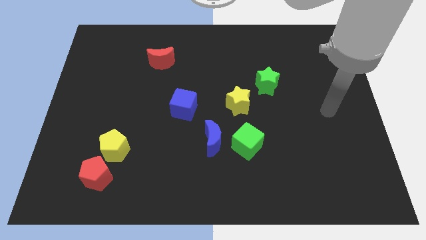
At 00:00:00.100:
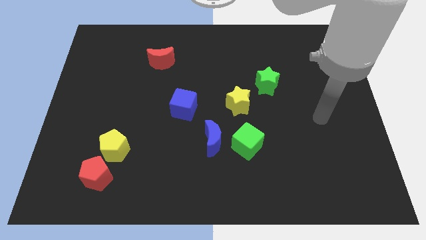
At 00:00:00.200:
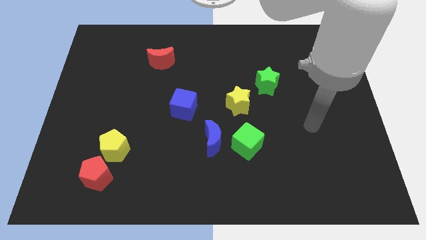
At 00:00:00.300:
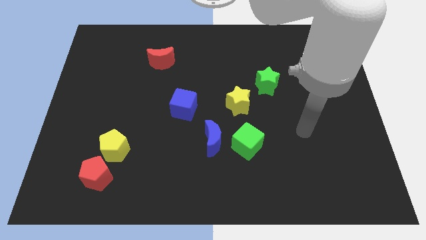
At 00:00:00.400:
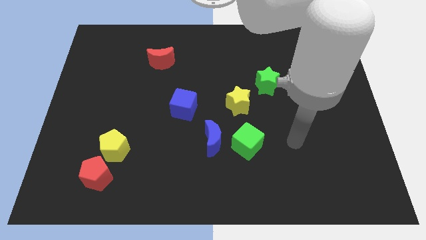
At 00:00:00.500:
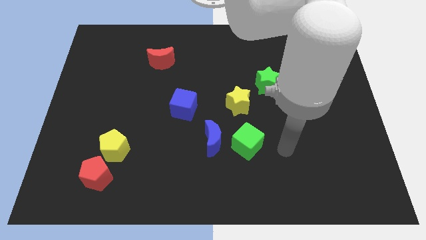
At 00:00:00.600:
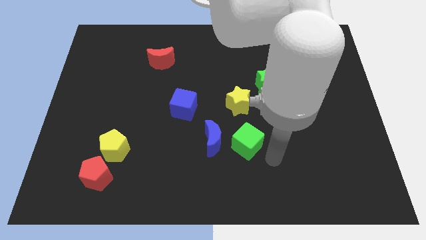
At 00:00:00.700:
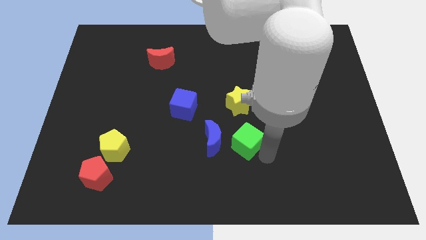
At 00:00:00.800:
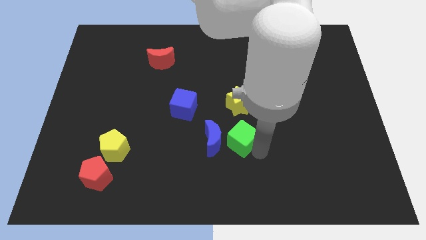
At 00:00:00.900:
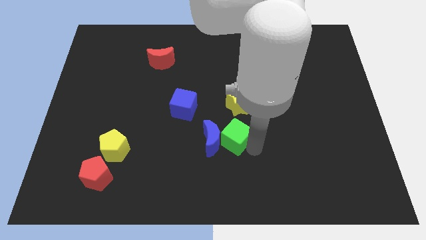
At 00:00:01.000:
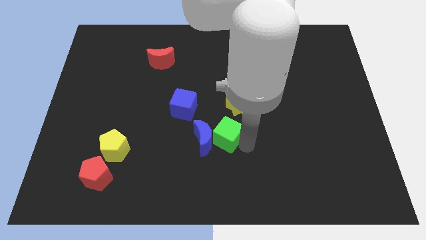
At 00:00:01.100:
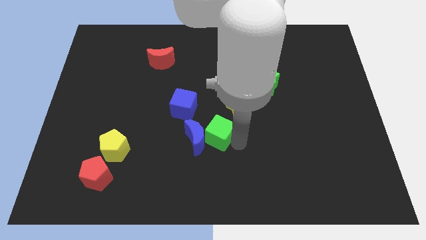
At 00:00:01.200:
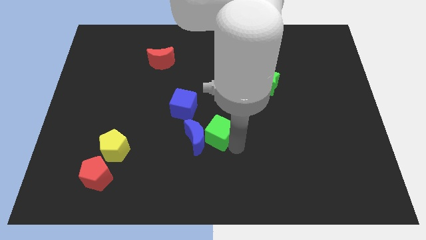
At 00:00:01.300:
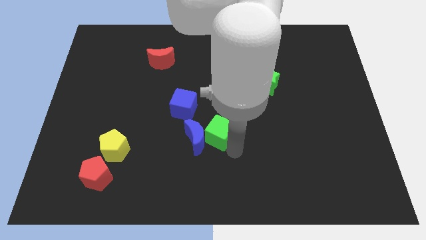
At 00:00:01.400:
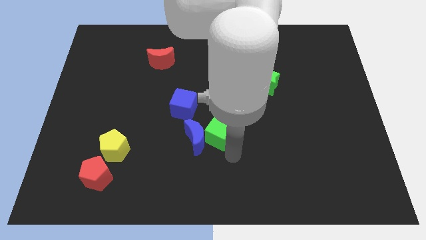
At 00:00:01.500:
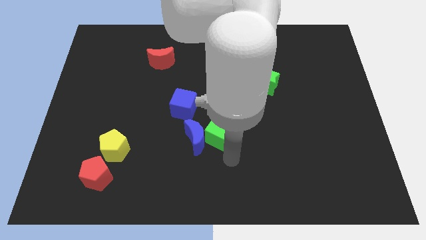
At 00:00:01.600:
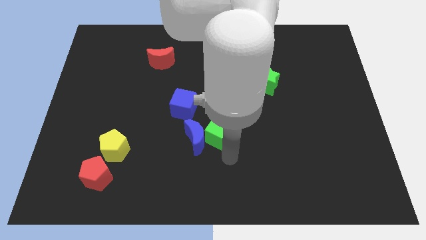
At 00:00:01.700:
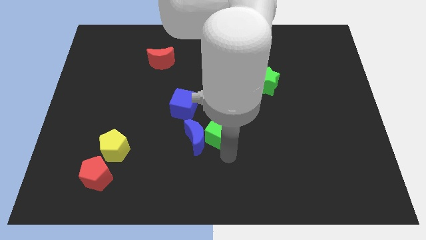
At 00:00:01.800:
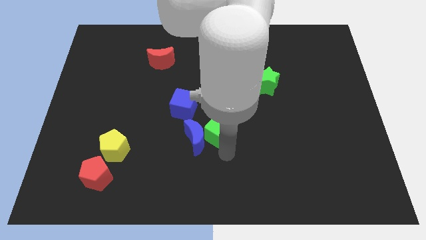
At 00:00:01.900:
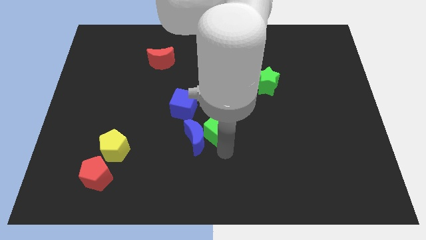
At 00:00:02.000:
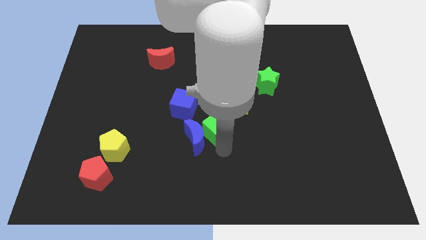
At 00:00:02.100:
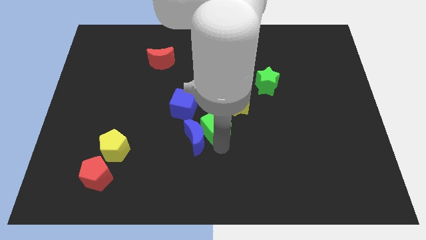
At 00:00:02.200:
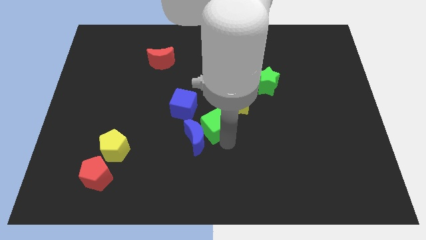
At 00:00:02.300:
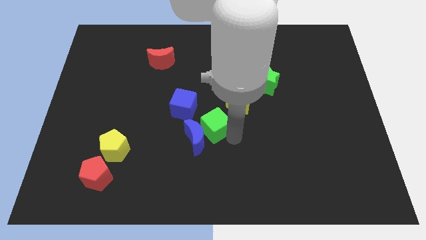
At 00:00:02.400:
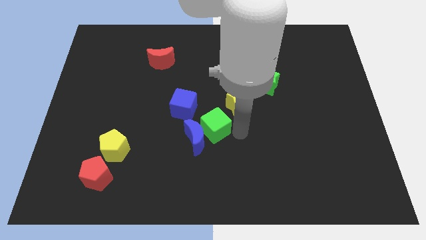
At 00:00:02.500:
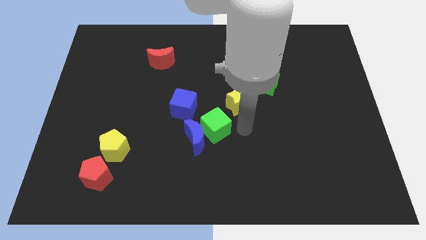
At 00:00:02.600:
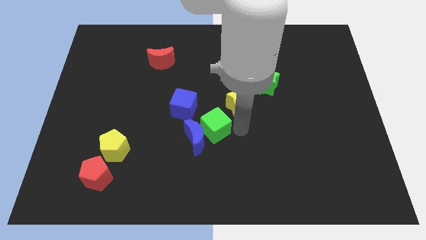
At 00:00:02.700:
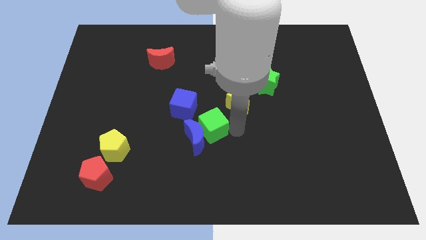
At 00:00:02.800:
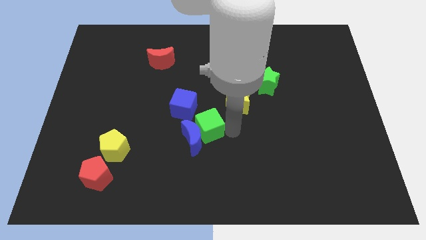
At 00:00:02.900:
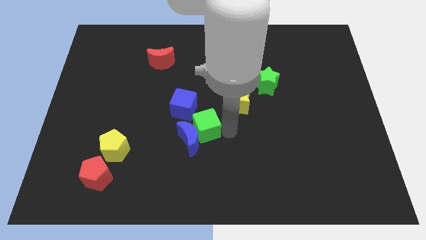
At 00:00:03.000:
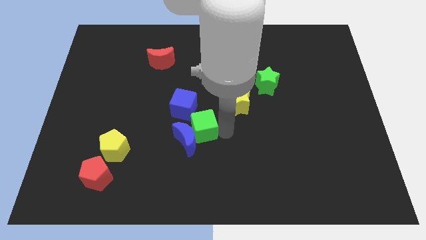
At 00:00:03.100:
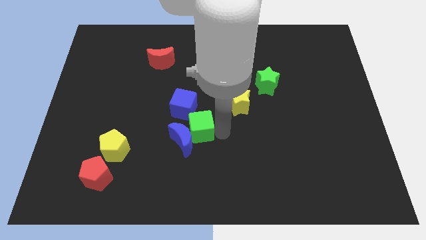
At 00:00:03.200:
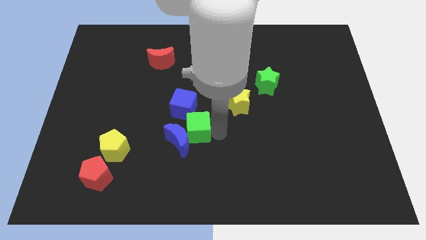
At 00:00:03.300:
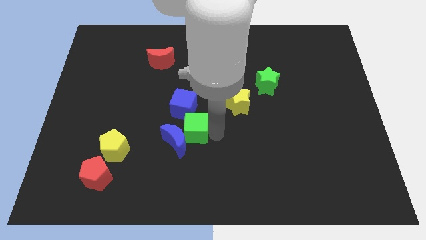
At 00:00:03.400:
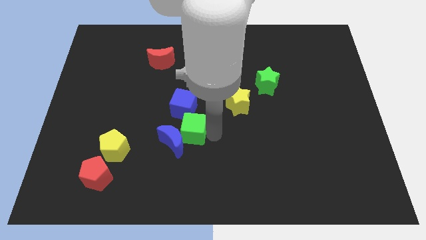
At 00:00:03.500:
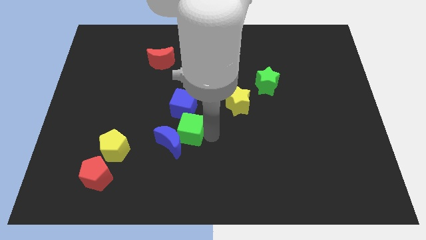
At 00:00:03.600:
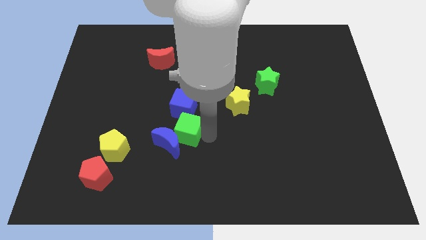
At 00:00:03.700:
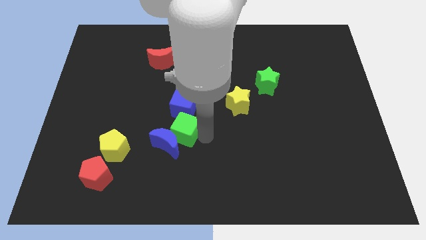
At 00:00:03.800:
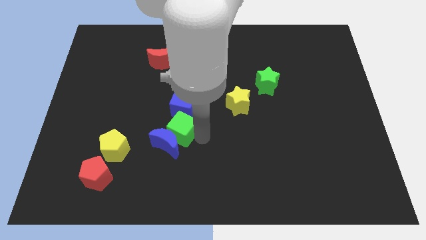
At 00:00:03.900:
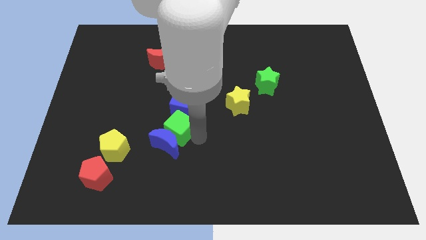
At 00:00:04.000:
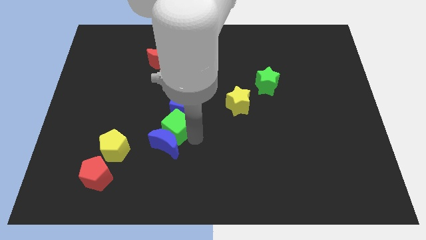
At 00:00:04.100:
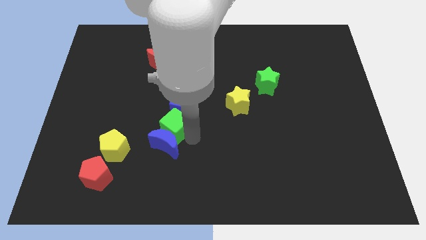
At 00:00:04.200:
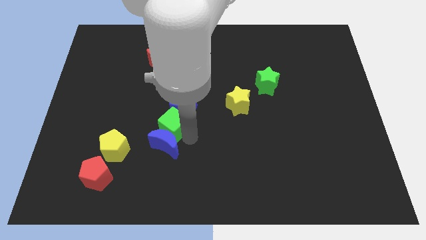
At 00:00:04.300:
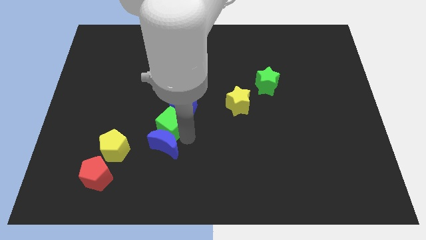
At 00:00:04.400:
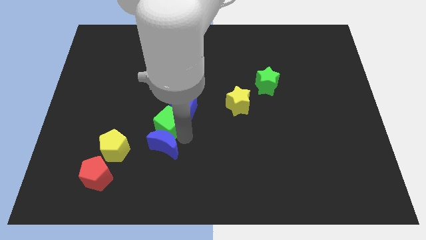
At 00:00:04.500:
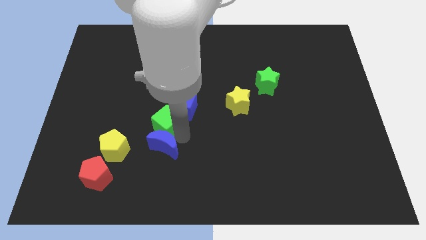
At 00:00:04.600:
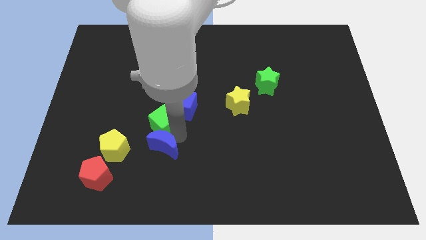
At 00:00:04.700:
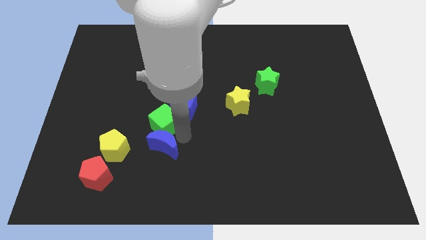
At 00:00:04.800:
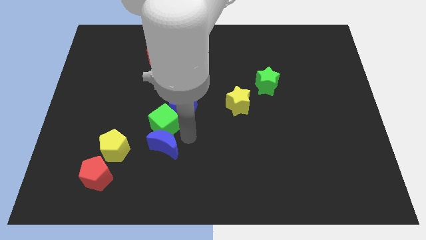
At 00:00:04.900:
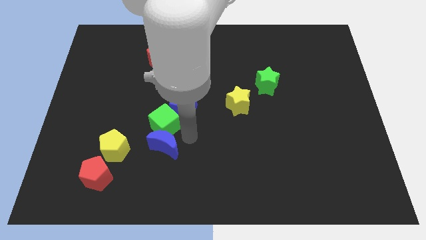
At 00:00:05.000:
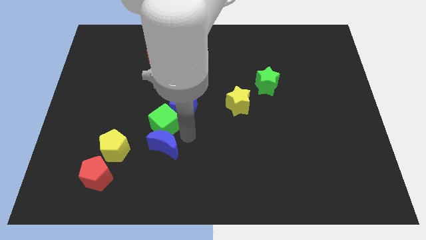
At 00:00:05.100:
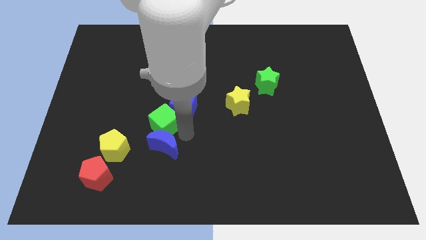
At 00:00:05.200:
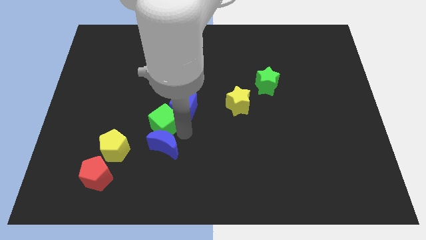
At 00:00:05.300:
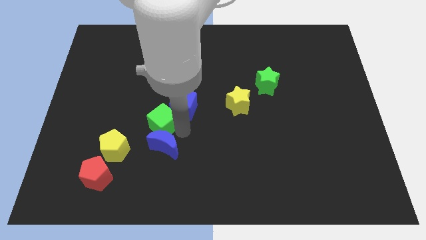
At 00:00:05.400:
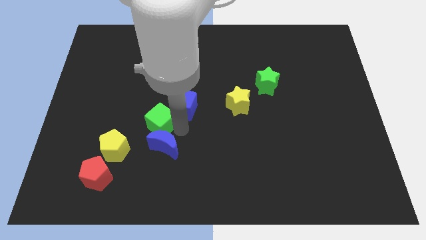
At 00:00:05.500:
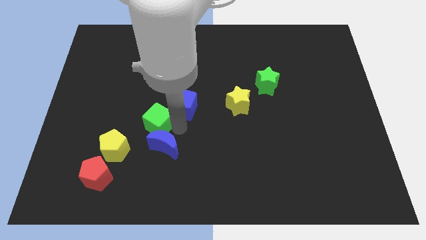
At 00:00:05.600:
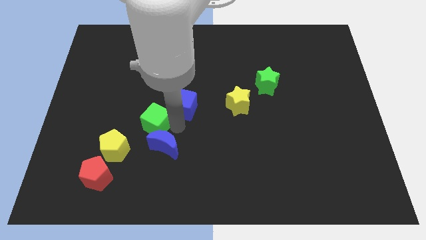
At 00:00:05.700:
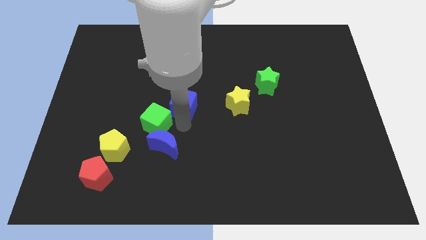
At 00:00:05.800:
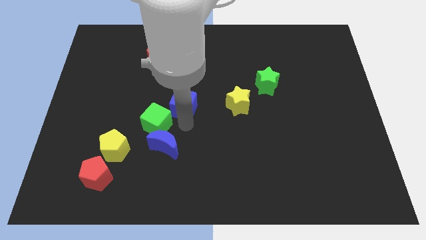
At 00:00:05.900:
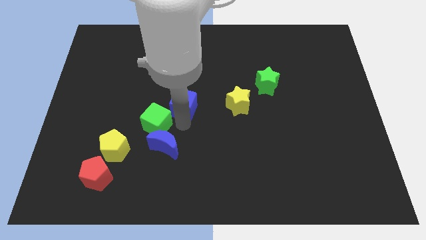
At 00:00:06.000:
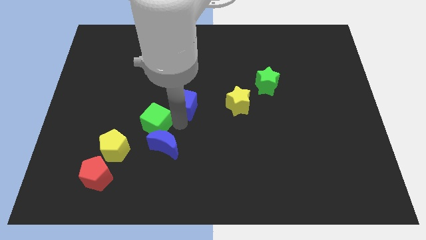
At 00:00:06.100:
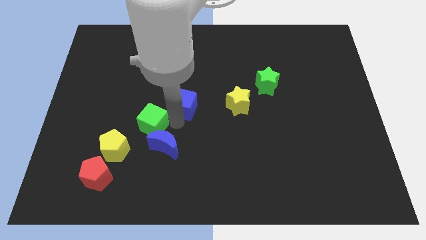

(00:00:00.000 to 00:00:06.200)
push the green cube left

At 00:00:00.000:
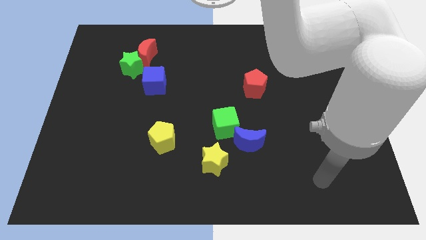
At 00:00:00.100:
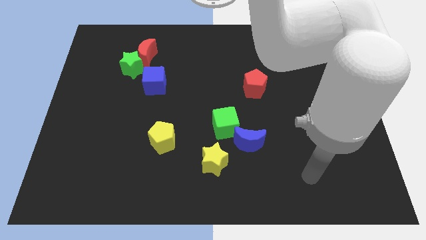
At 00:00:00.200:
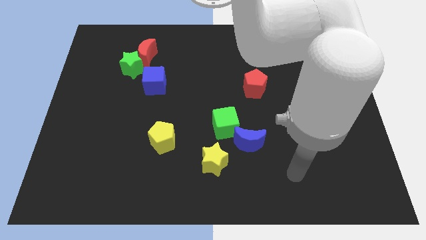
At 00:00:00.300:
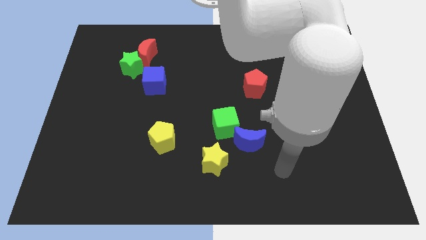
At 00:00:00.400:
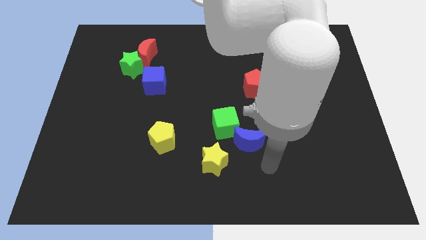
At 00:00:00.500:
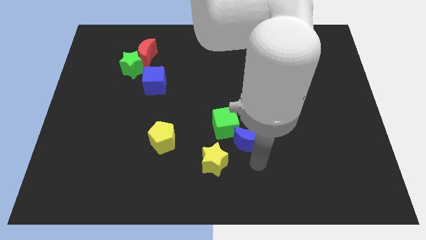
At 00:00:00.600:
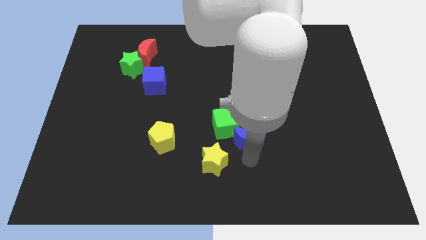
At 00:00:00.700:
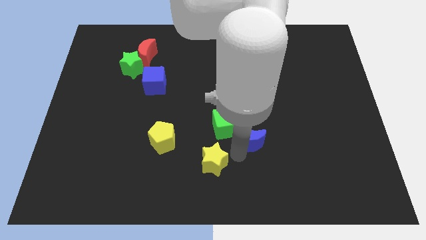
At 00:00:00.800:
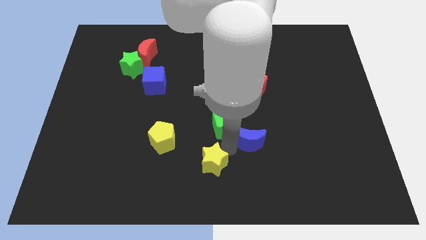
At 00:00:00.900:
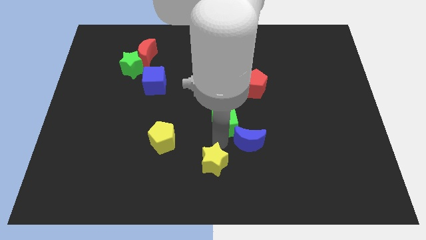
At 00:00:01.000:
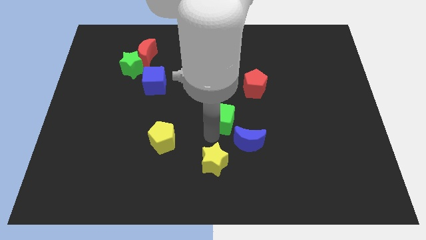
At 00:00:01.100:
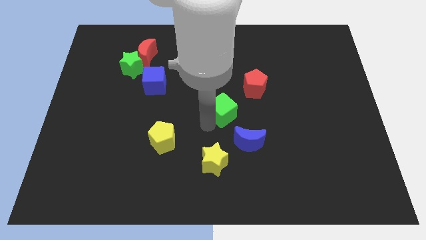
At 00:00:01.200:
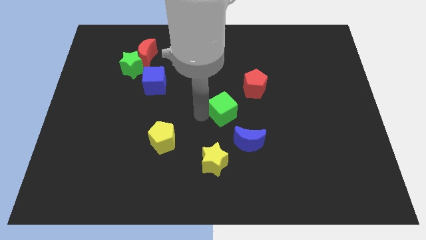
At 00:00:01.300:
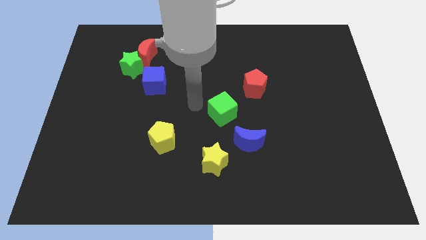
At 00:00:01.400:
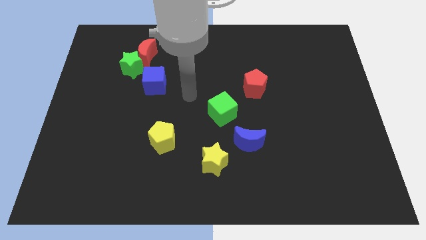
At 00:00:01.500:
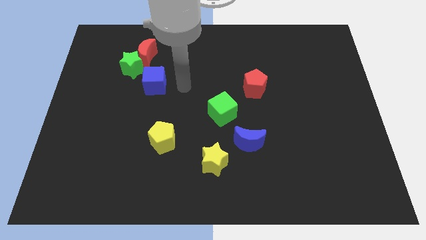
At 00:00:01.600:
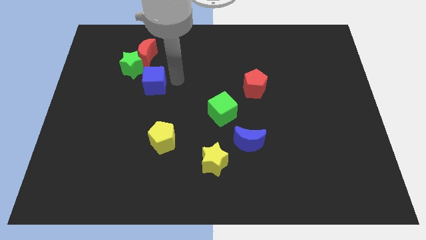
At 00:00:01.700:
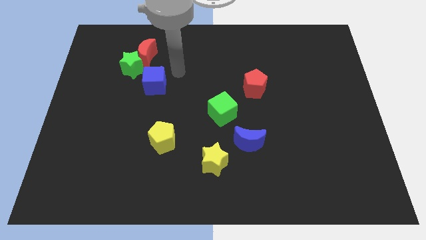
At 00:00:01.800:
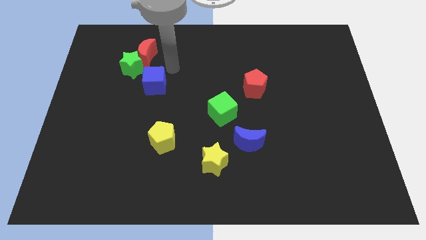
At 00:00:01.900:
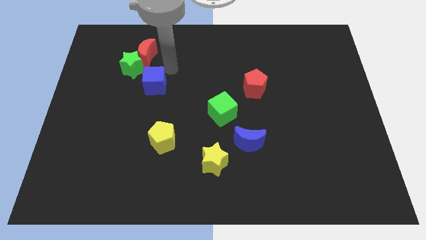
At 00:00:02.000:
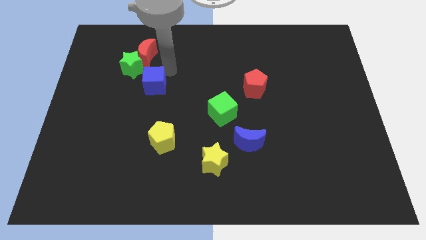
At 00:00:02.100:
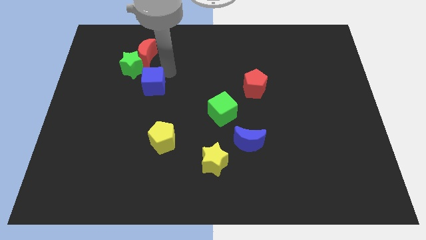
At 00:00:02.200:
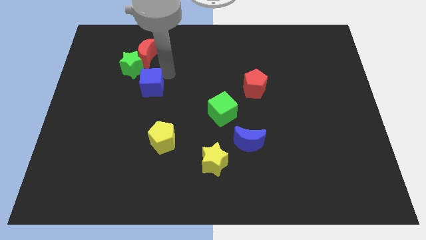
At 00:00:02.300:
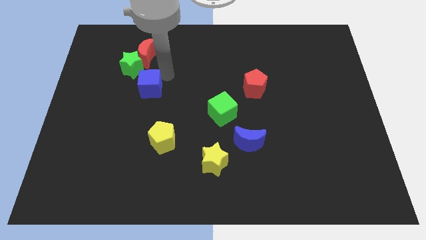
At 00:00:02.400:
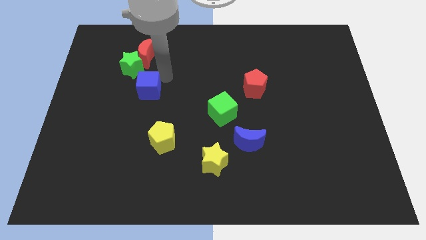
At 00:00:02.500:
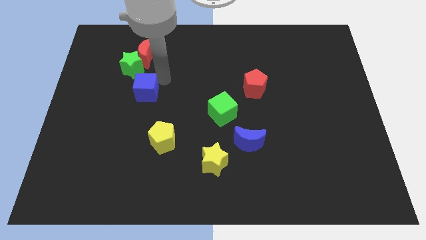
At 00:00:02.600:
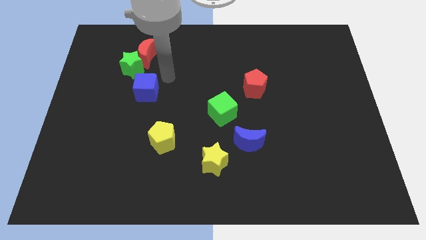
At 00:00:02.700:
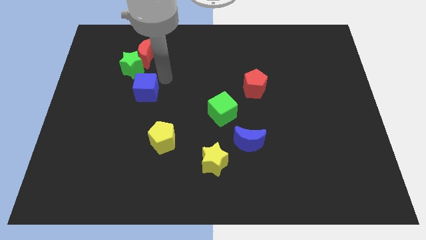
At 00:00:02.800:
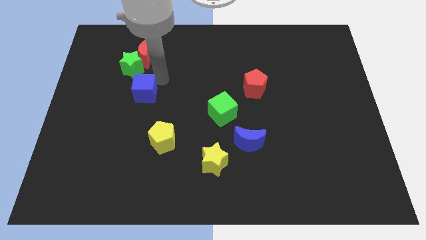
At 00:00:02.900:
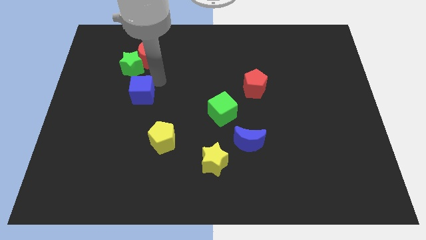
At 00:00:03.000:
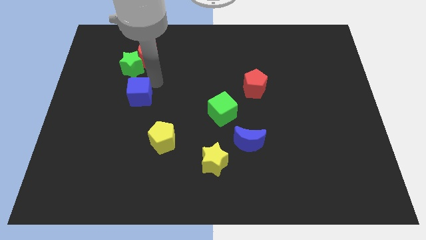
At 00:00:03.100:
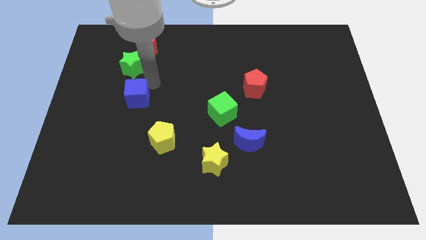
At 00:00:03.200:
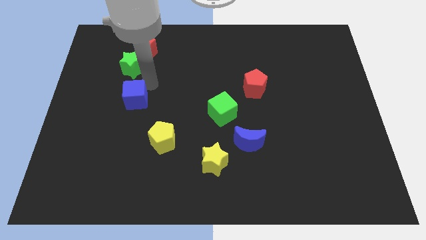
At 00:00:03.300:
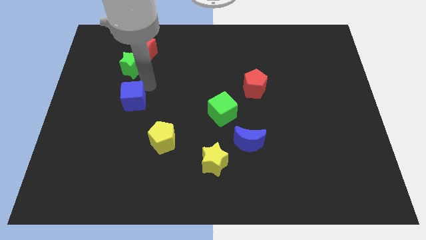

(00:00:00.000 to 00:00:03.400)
slightly push the blue cube down and to the left diagonally
